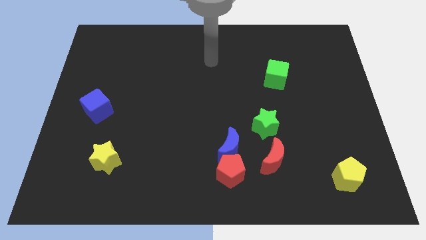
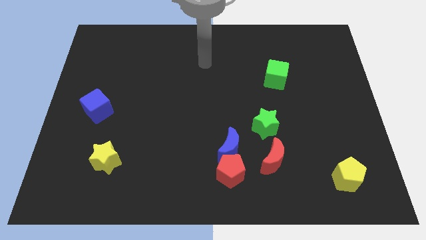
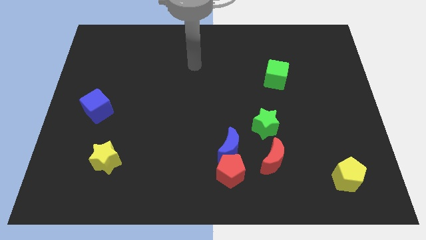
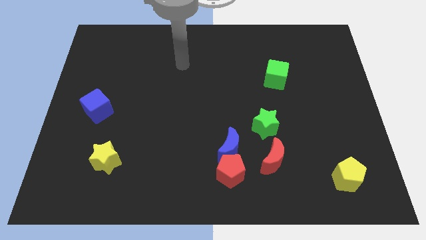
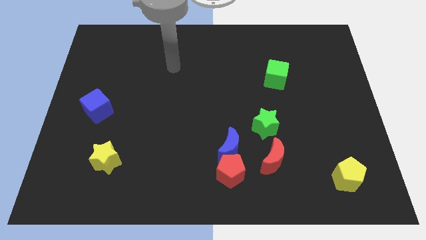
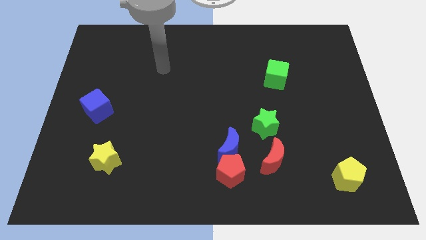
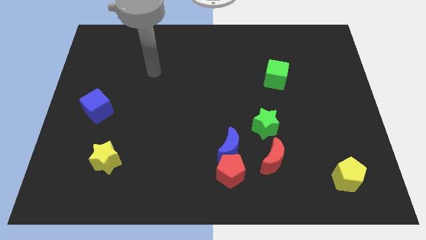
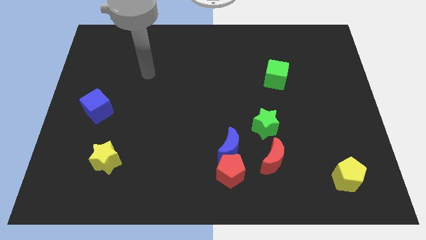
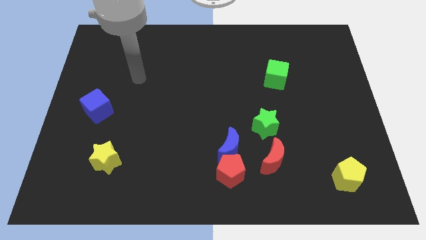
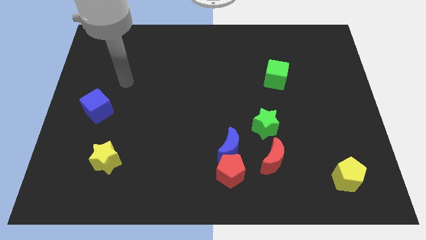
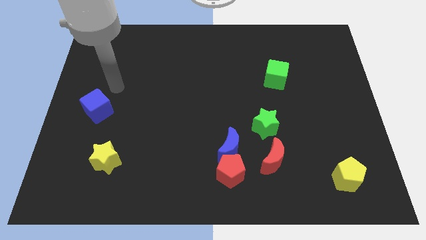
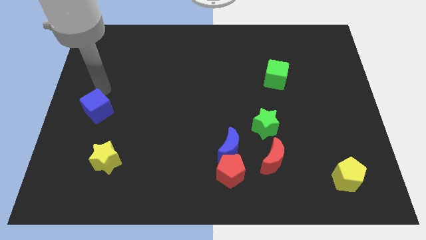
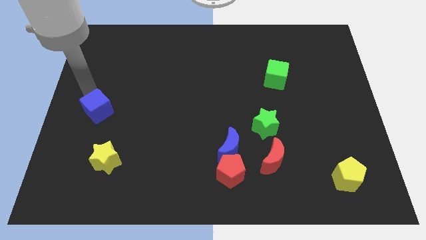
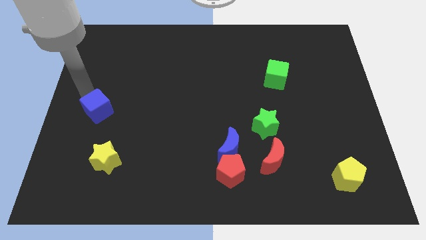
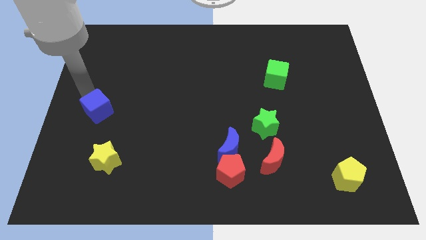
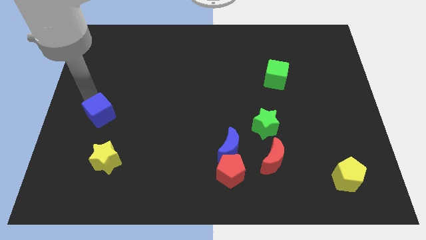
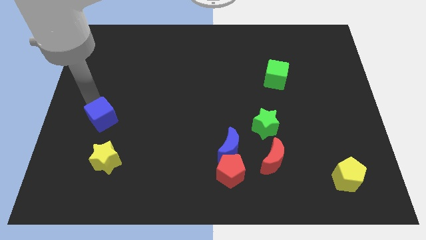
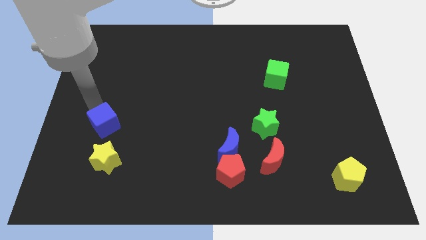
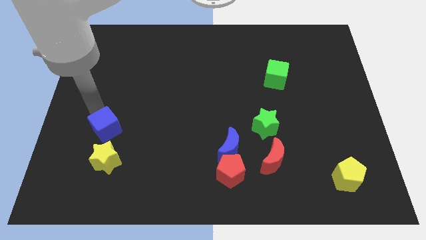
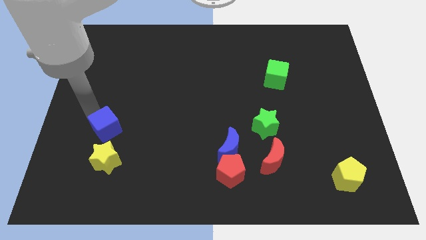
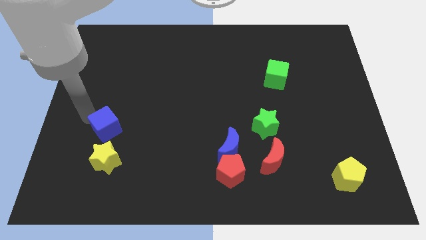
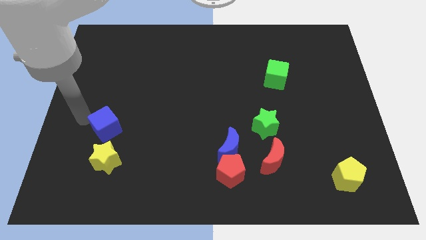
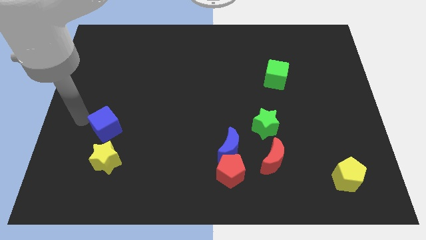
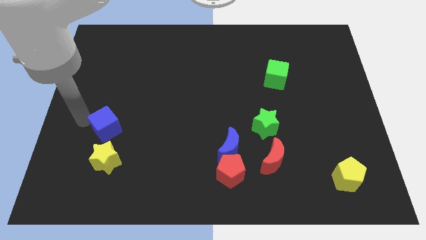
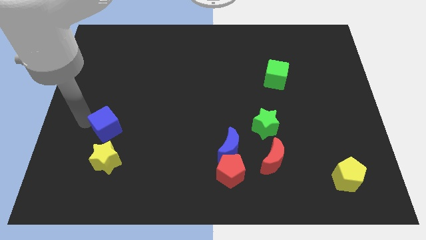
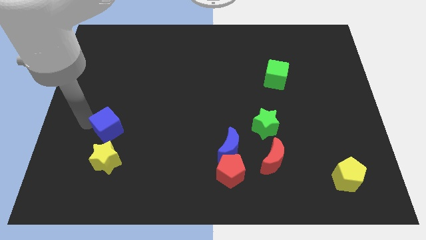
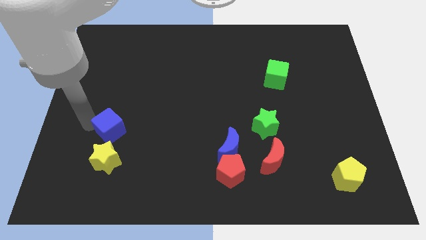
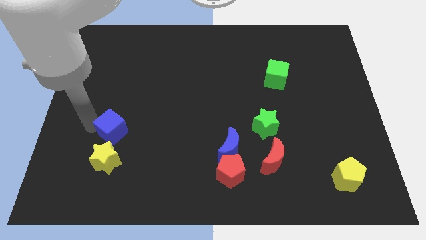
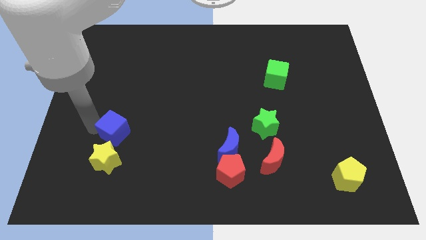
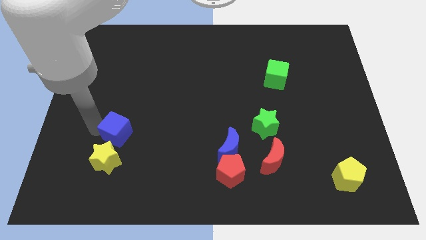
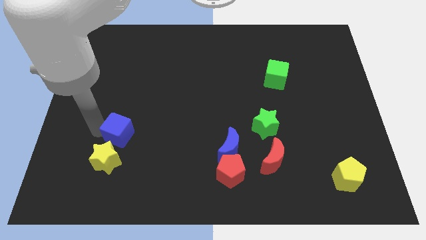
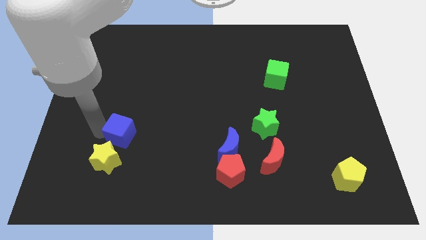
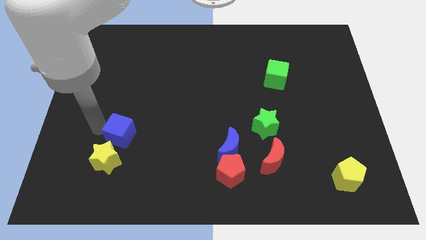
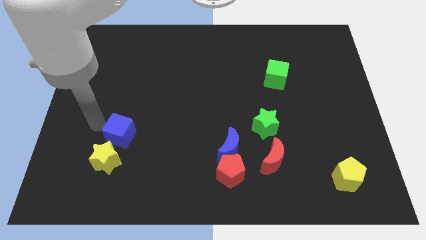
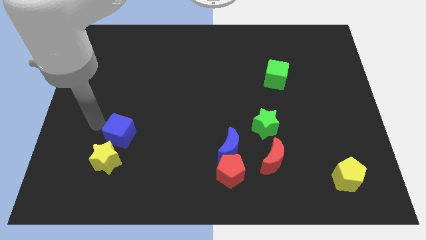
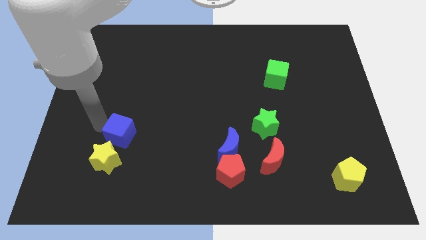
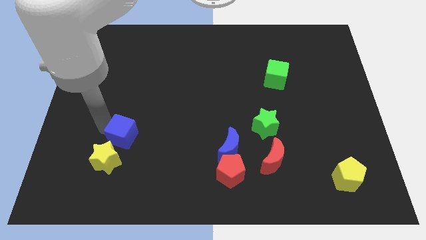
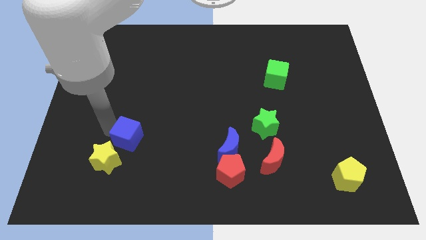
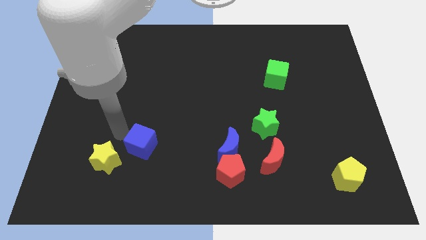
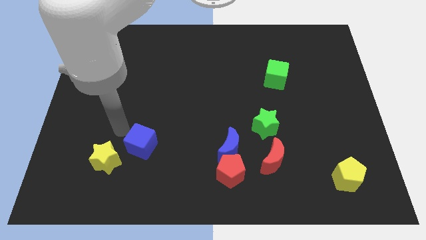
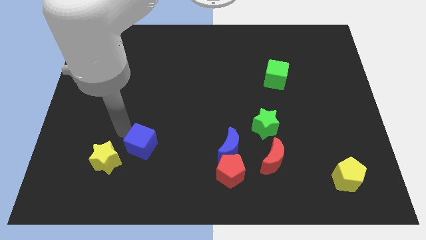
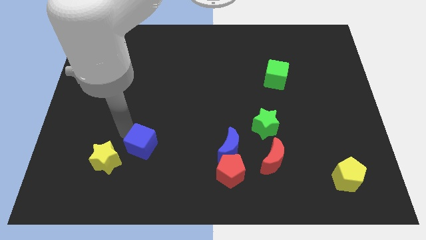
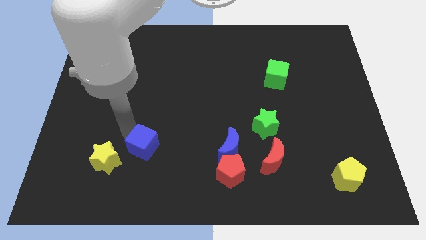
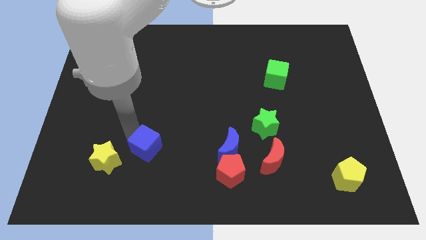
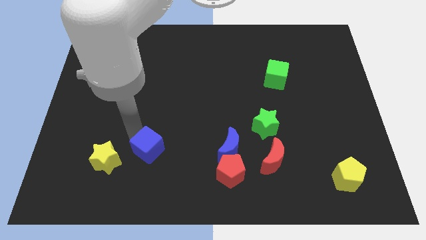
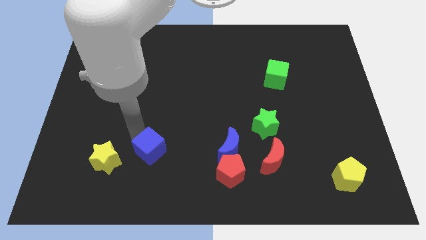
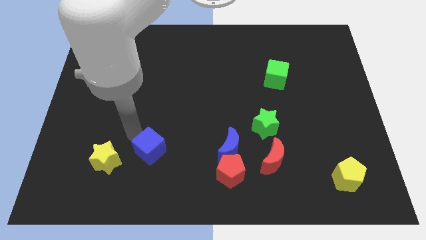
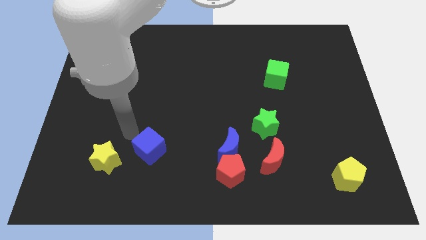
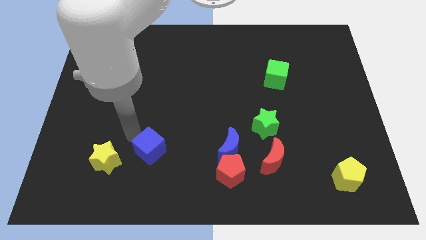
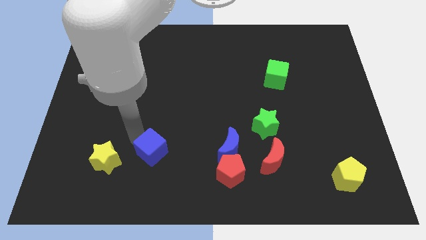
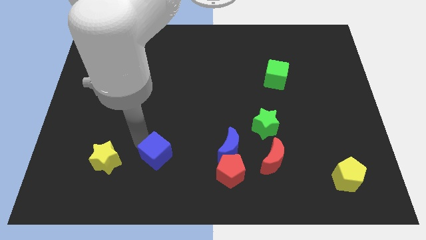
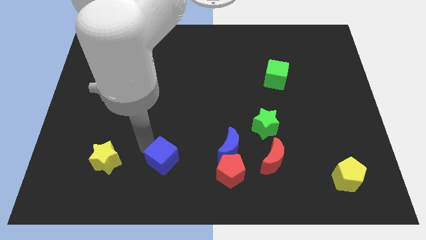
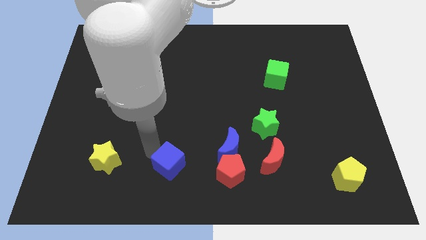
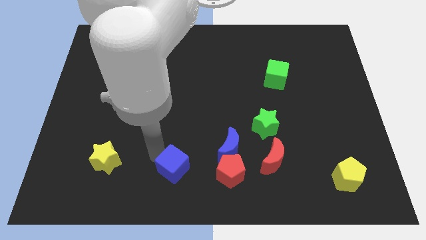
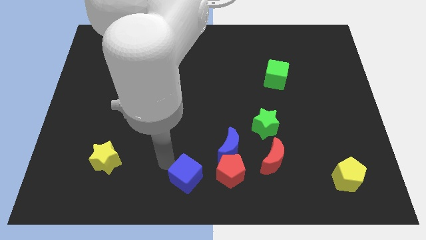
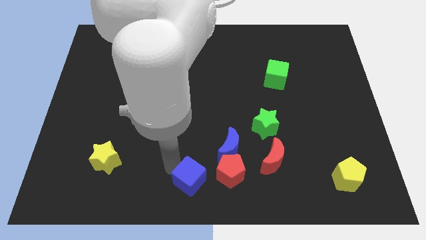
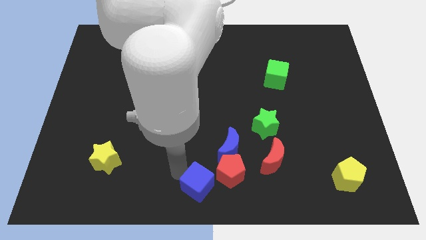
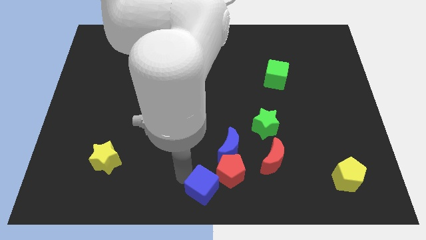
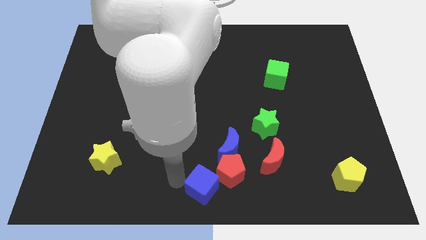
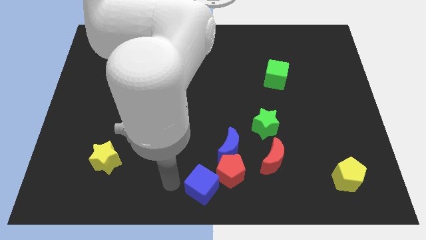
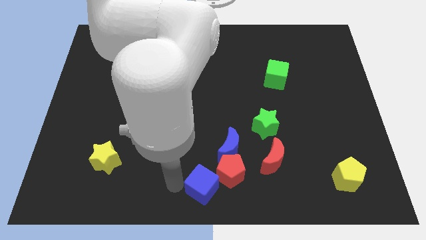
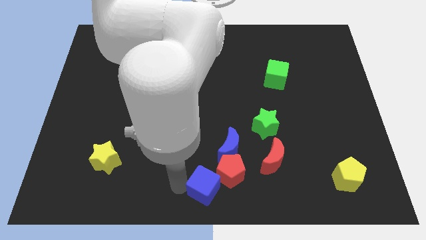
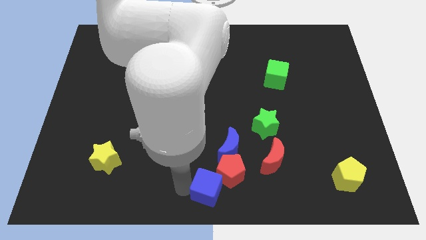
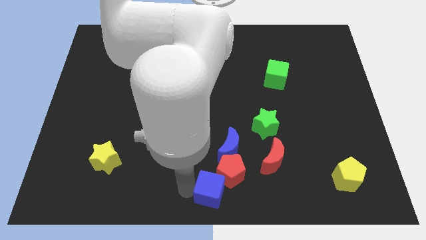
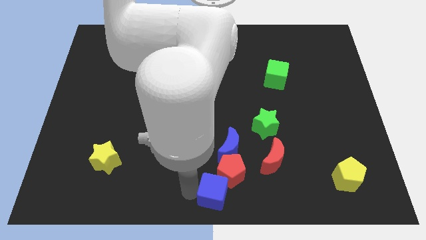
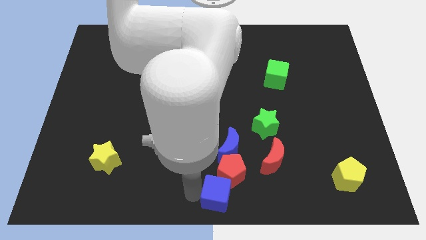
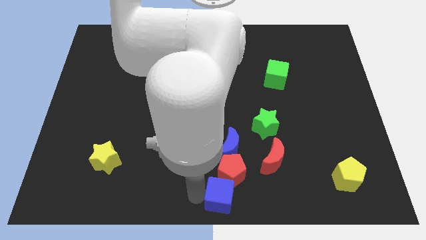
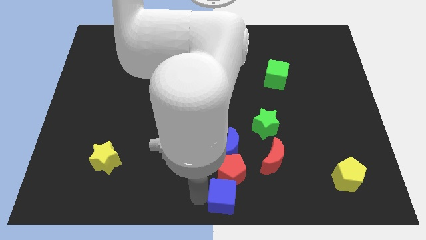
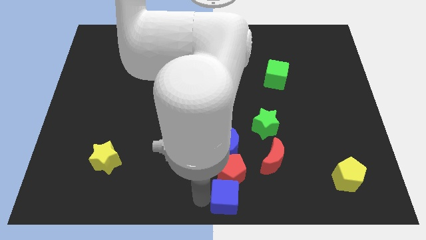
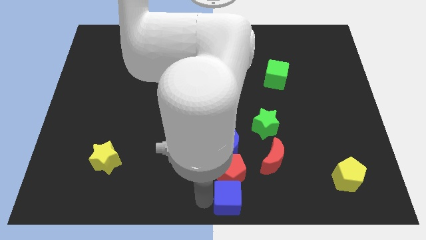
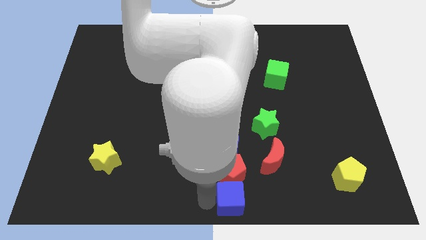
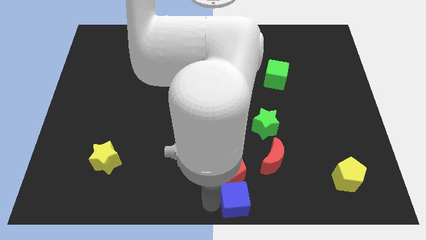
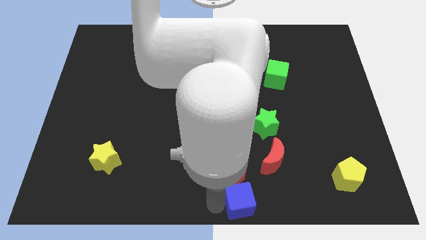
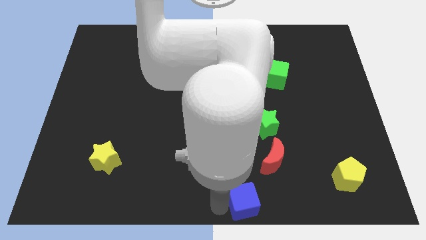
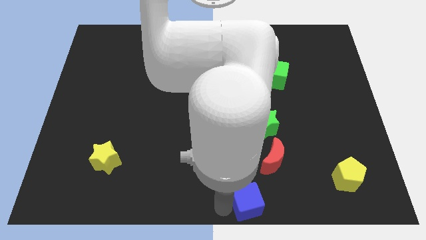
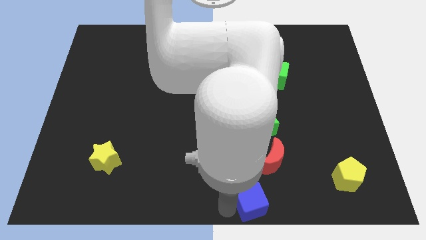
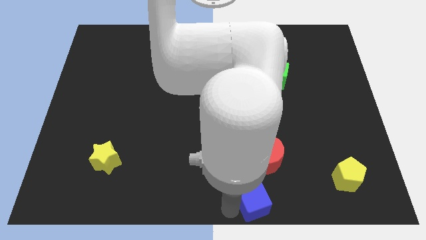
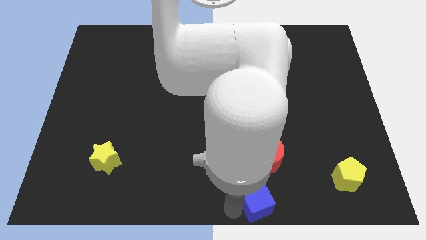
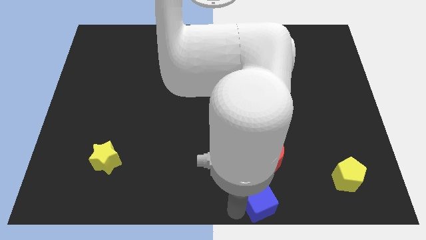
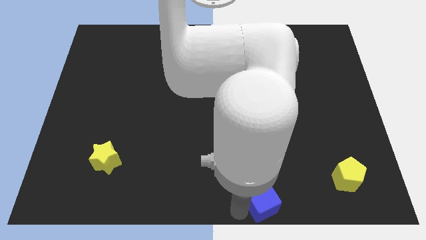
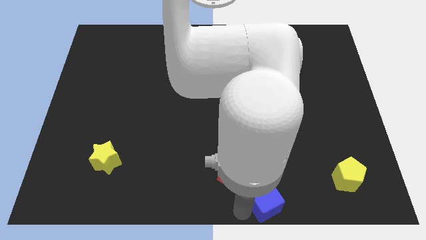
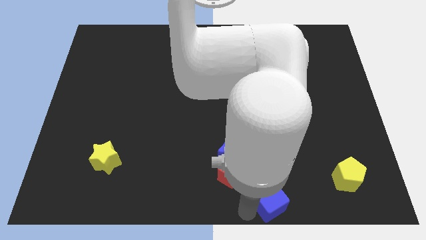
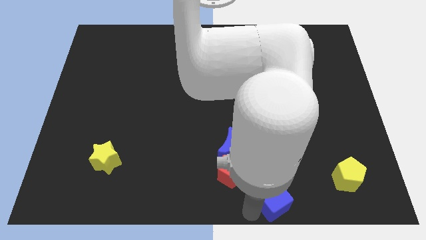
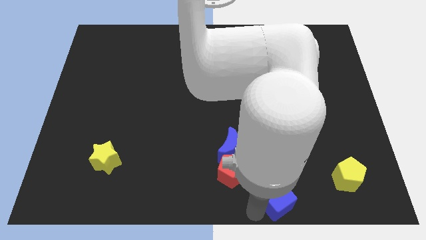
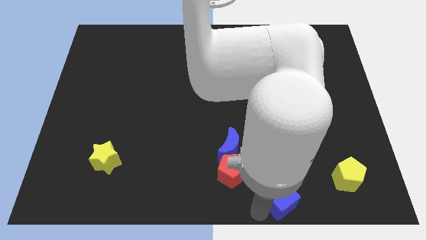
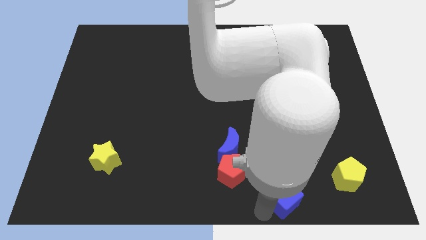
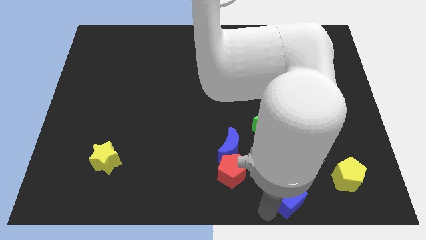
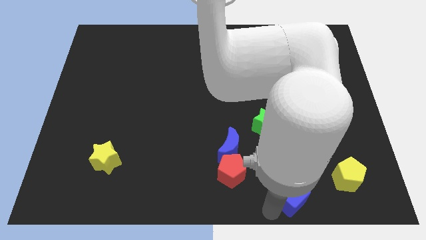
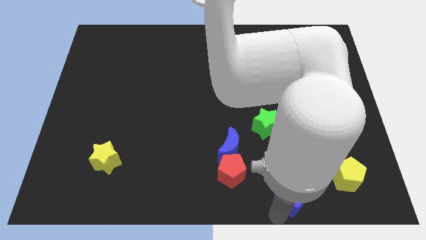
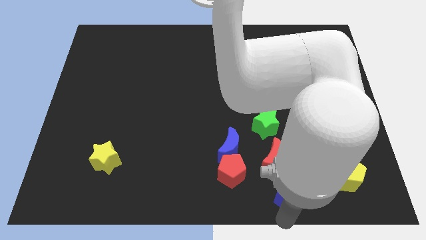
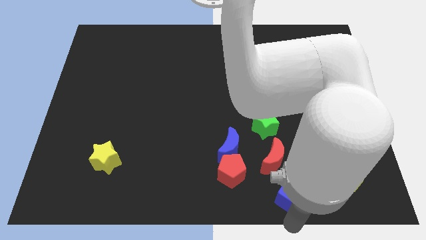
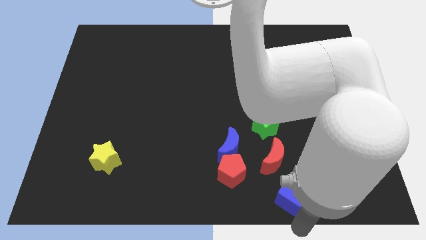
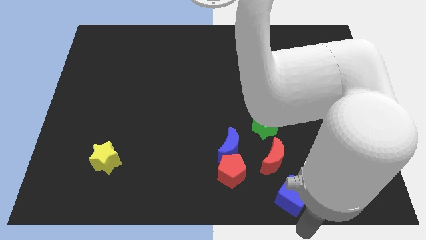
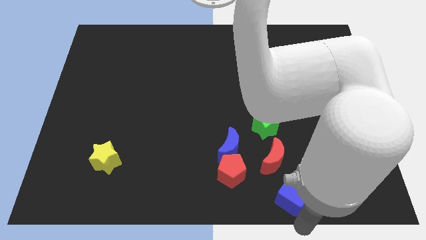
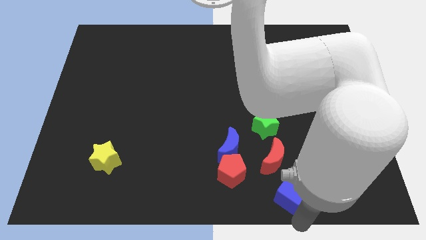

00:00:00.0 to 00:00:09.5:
slide the blue cube to the right side of the red pentagon
